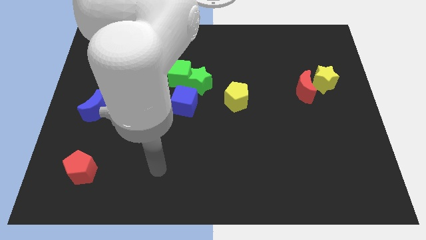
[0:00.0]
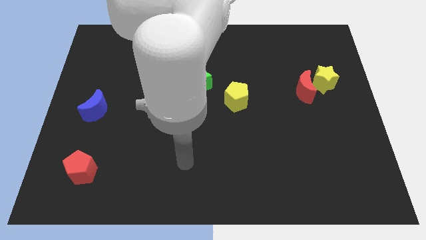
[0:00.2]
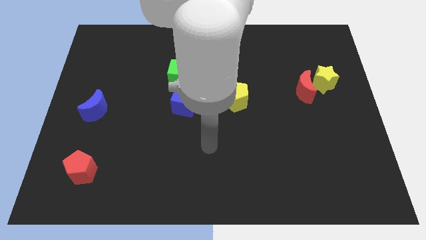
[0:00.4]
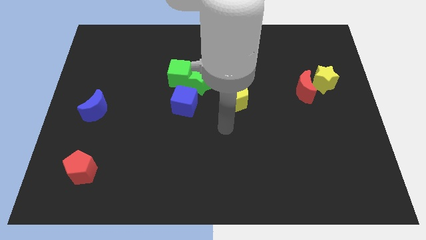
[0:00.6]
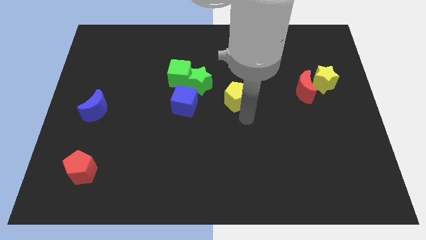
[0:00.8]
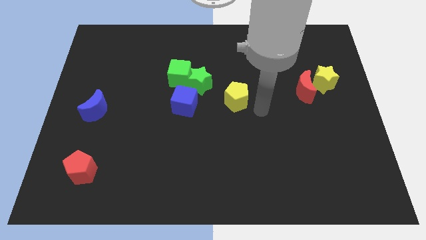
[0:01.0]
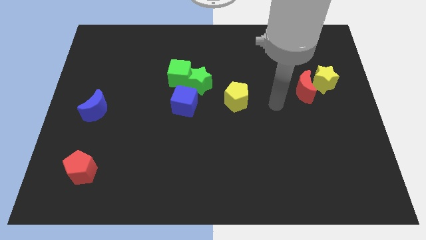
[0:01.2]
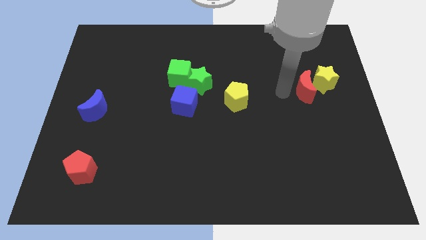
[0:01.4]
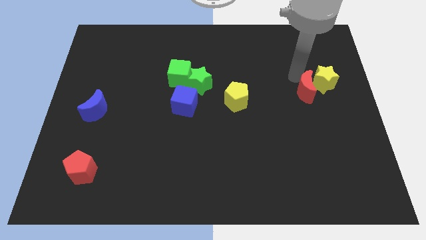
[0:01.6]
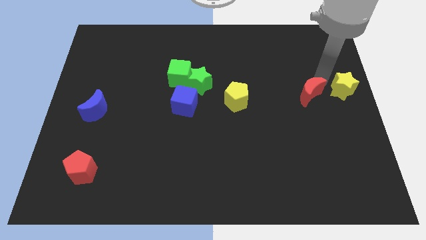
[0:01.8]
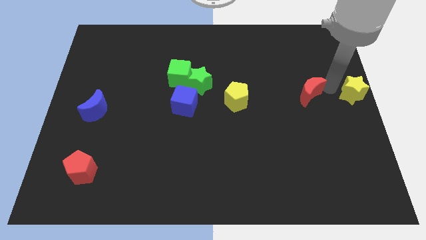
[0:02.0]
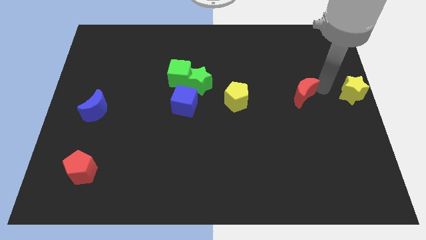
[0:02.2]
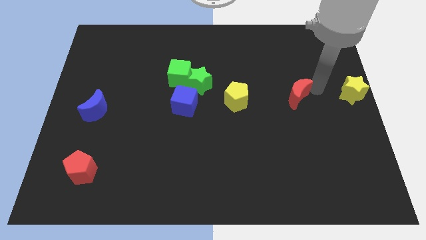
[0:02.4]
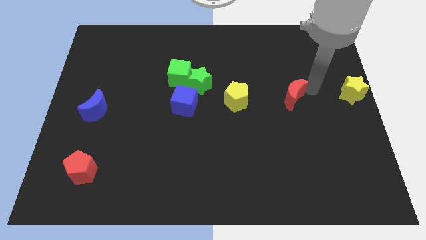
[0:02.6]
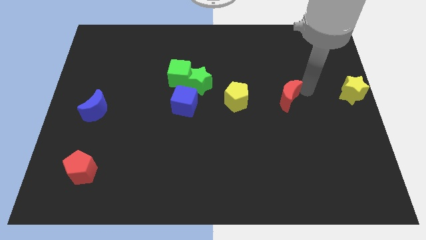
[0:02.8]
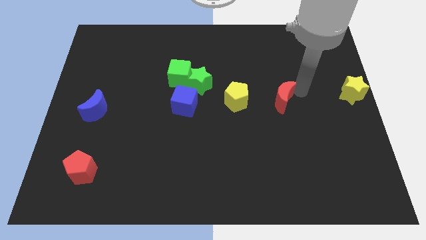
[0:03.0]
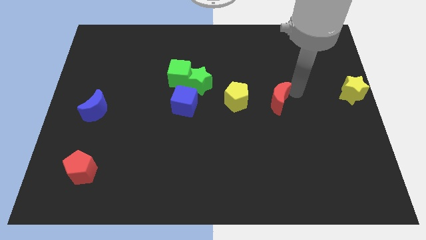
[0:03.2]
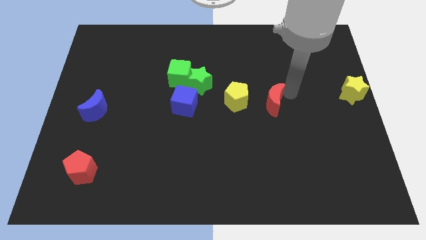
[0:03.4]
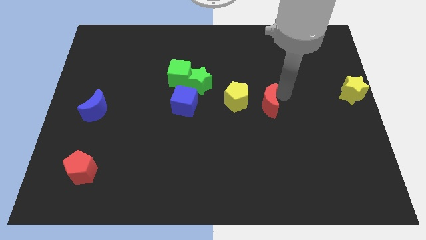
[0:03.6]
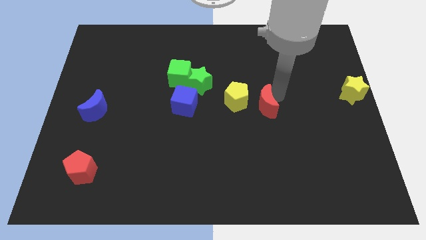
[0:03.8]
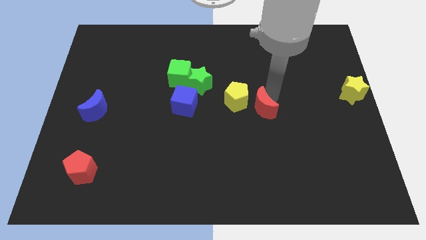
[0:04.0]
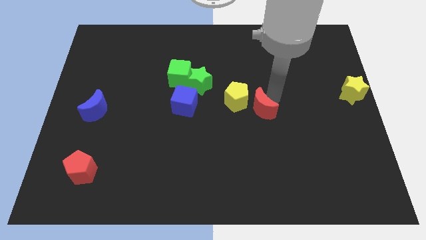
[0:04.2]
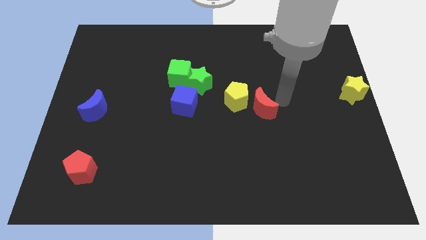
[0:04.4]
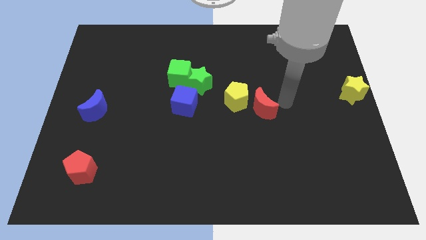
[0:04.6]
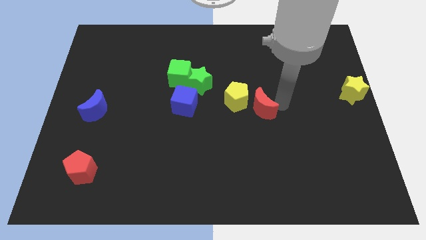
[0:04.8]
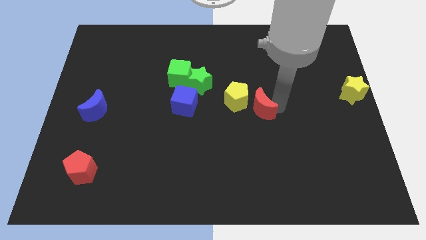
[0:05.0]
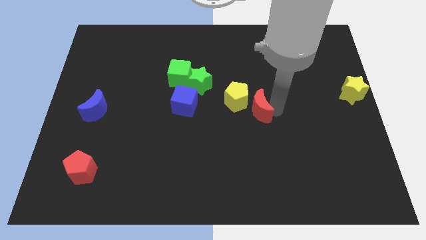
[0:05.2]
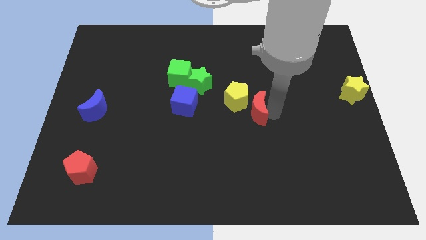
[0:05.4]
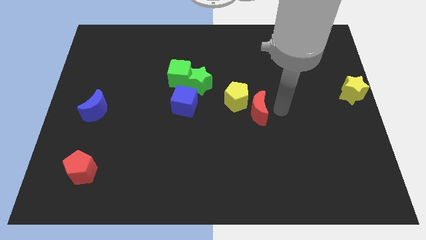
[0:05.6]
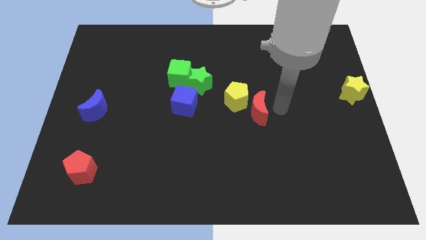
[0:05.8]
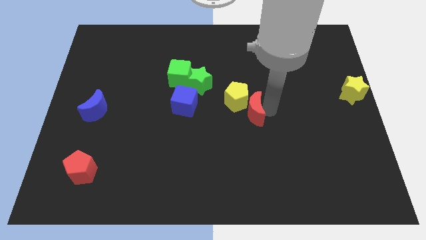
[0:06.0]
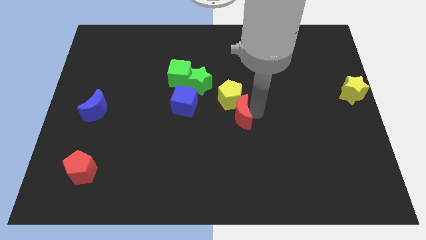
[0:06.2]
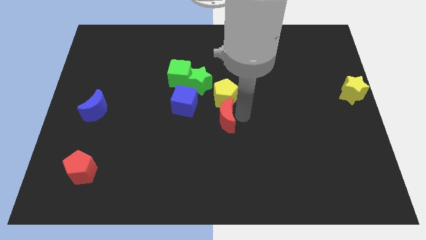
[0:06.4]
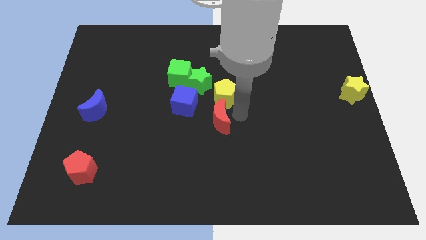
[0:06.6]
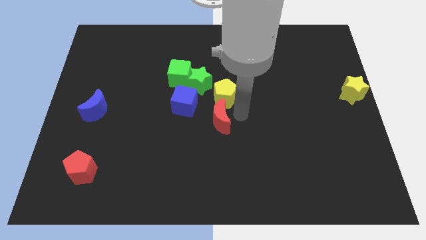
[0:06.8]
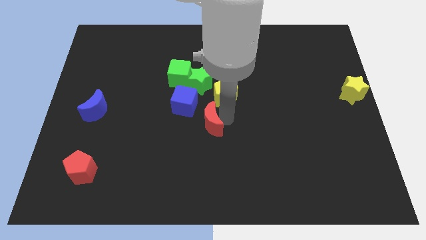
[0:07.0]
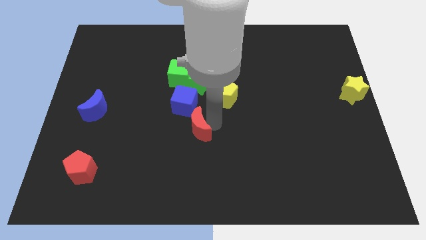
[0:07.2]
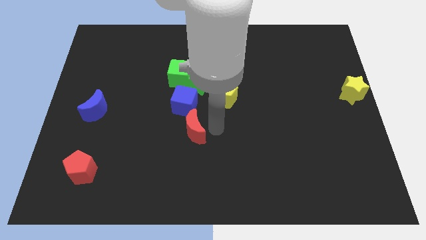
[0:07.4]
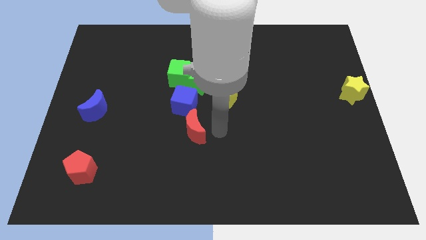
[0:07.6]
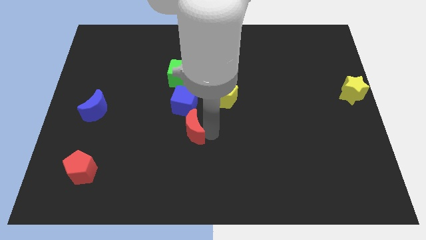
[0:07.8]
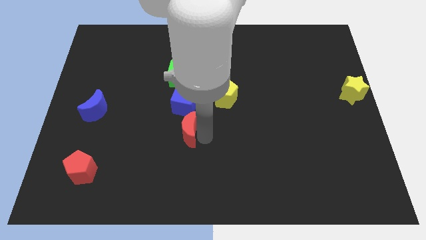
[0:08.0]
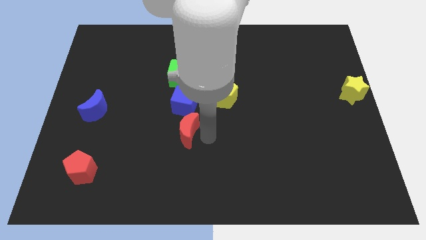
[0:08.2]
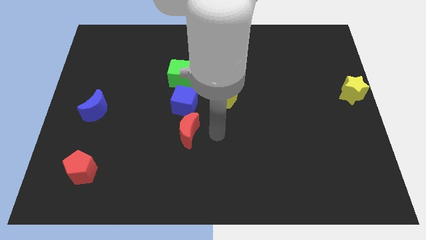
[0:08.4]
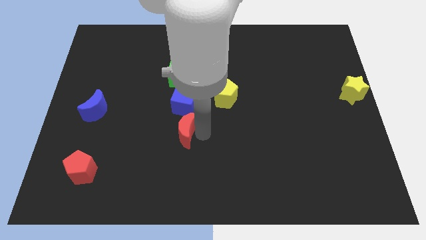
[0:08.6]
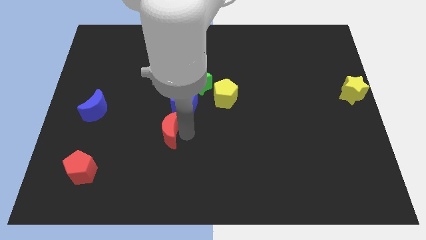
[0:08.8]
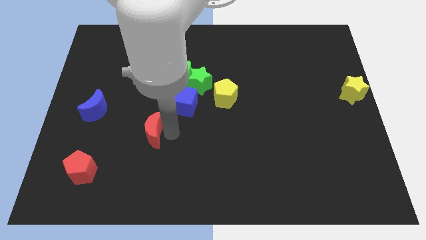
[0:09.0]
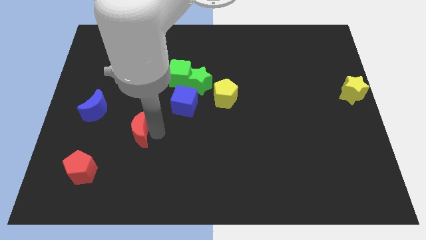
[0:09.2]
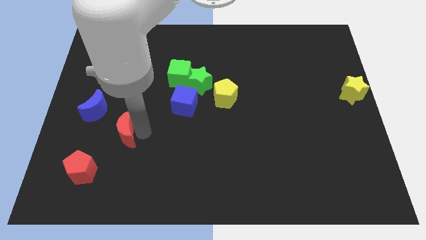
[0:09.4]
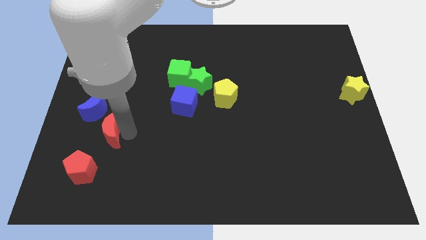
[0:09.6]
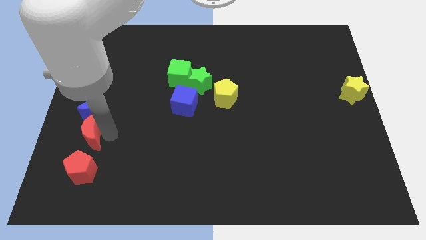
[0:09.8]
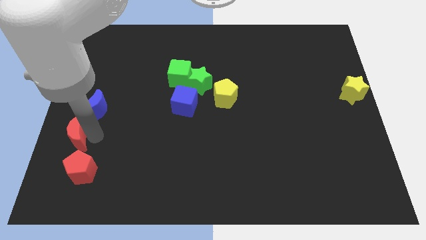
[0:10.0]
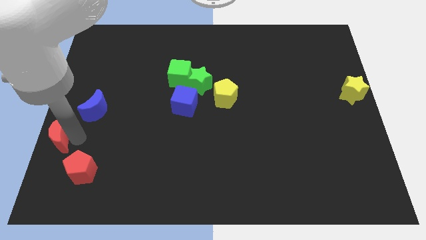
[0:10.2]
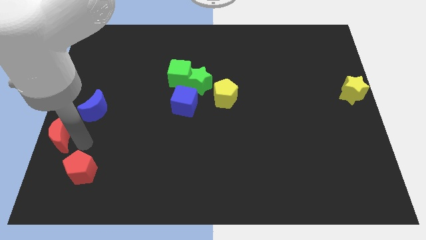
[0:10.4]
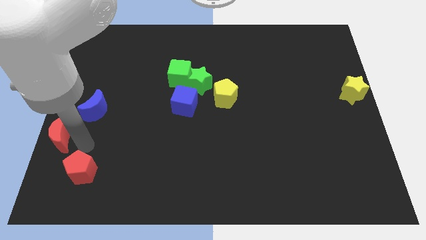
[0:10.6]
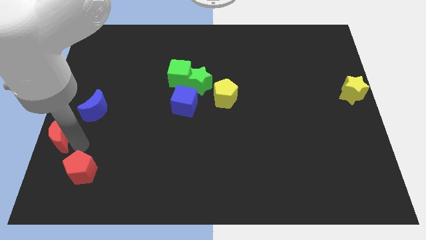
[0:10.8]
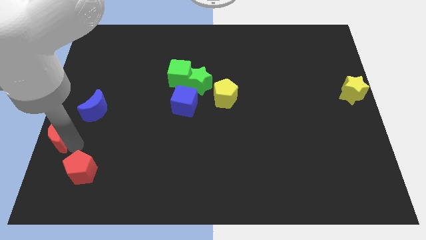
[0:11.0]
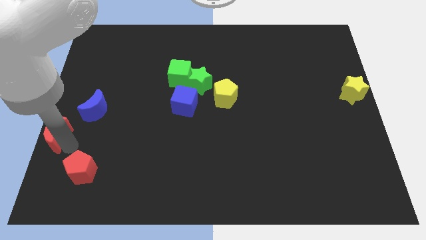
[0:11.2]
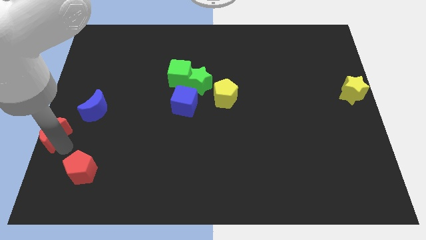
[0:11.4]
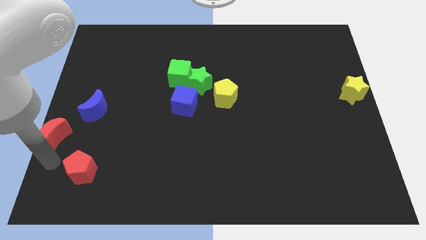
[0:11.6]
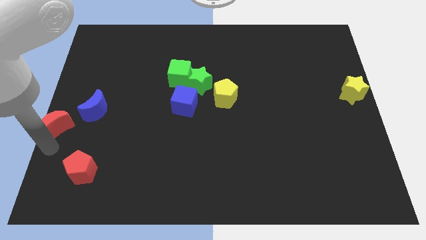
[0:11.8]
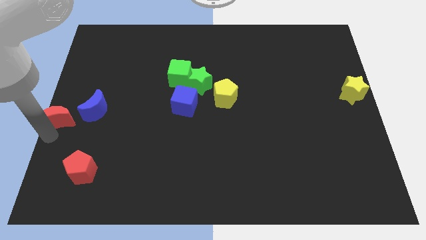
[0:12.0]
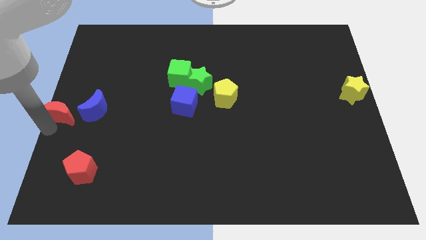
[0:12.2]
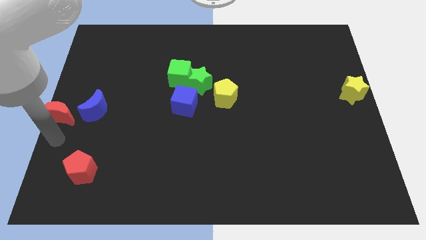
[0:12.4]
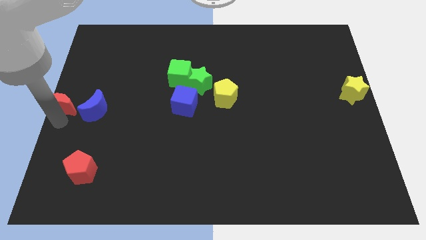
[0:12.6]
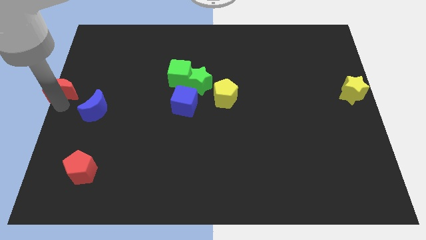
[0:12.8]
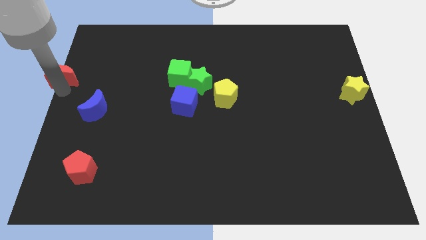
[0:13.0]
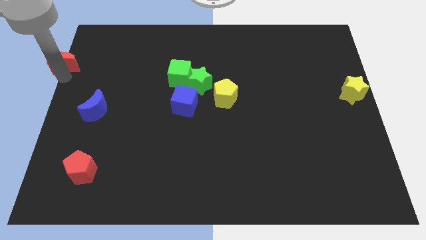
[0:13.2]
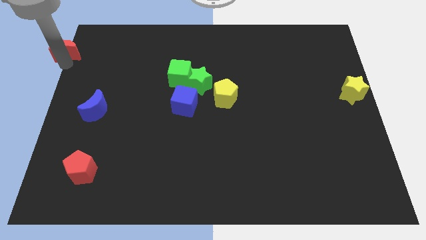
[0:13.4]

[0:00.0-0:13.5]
put the red moon to the upper left corner
